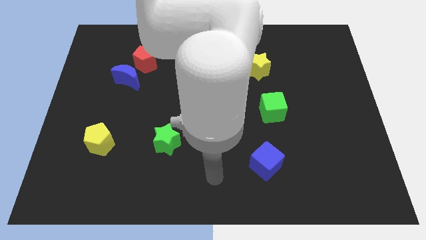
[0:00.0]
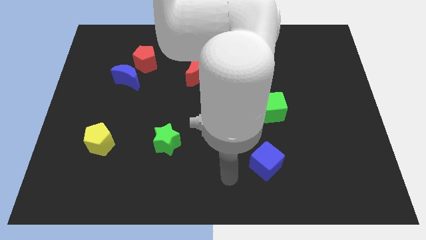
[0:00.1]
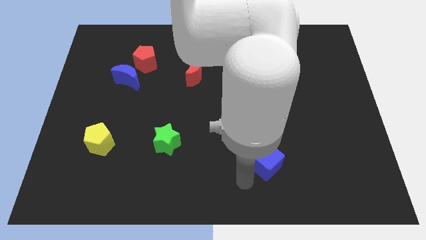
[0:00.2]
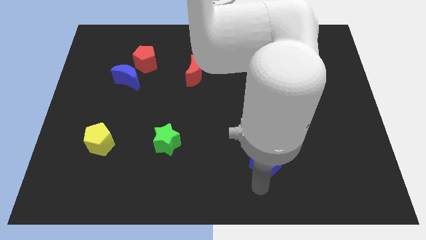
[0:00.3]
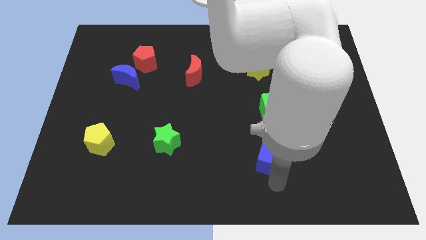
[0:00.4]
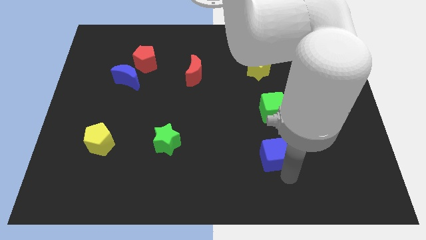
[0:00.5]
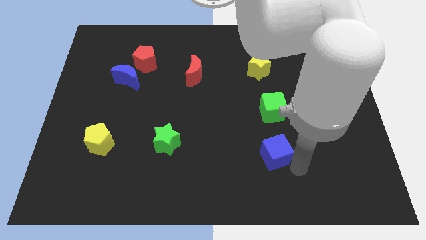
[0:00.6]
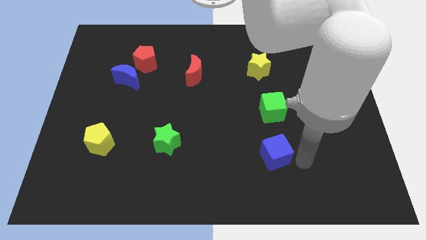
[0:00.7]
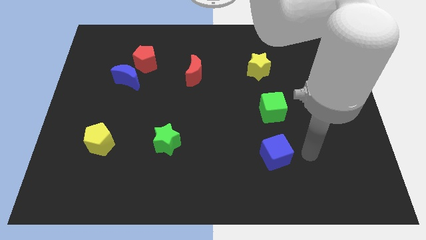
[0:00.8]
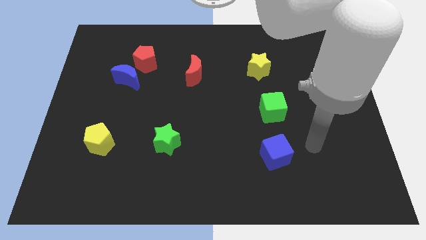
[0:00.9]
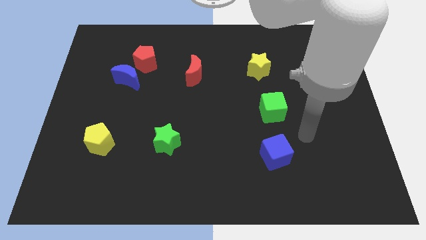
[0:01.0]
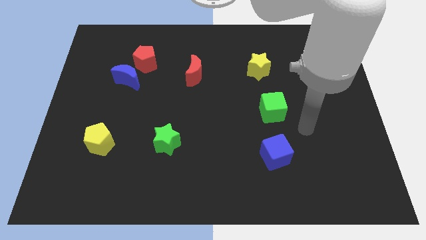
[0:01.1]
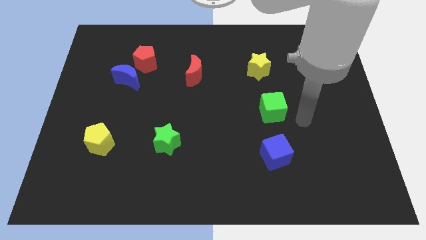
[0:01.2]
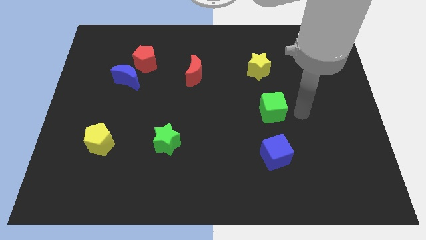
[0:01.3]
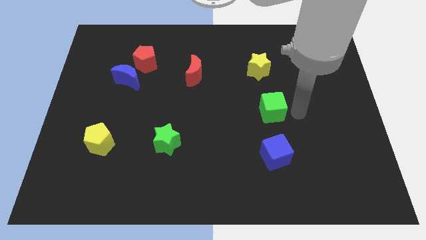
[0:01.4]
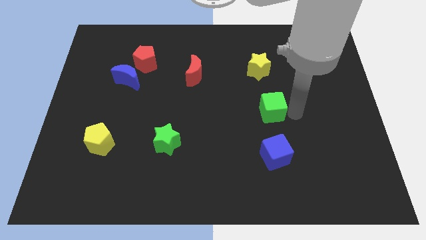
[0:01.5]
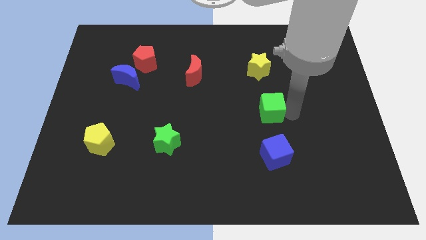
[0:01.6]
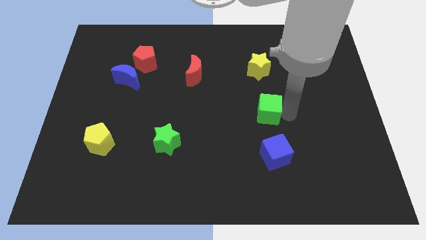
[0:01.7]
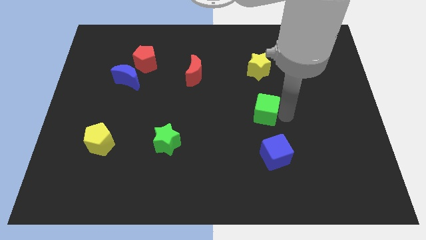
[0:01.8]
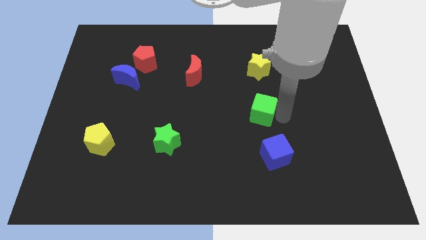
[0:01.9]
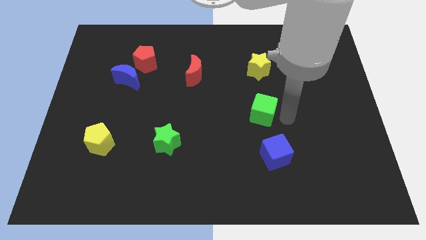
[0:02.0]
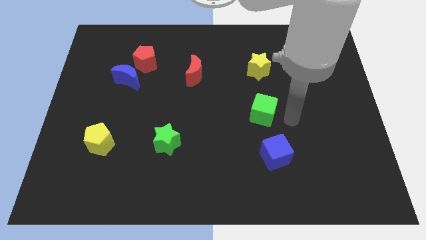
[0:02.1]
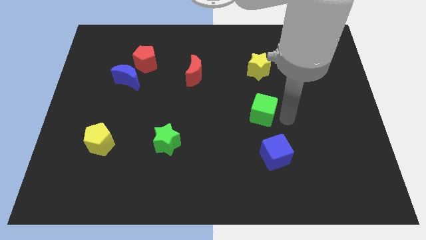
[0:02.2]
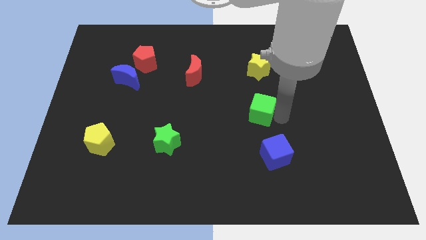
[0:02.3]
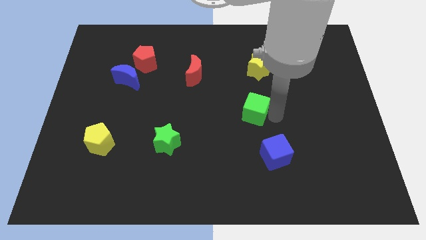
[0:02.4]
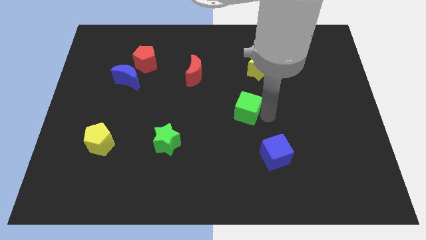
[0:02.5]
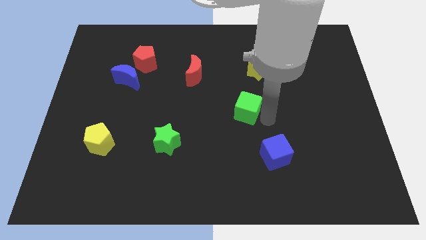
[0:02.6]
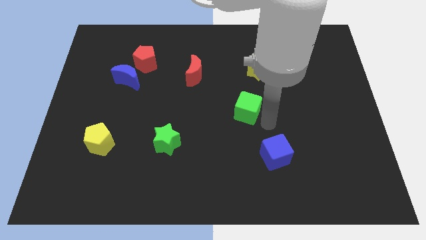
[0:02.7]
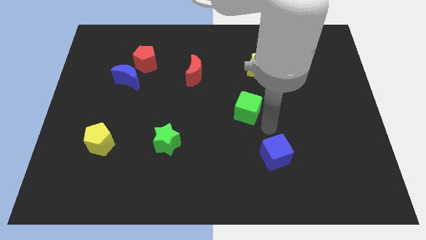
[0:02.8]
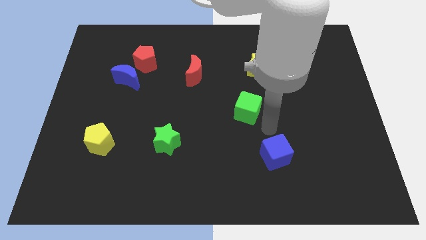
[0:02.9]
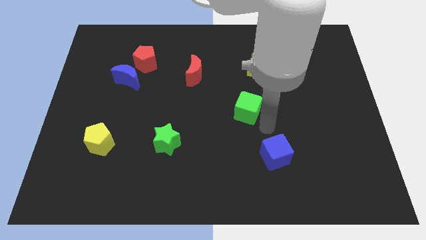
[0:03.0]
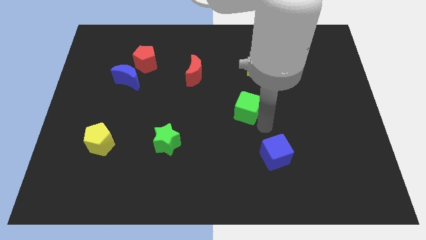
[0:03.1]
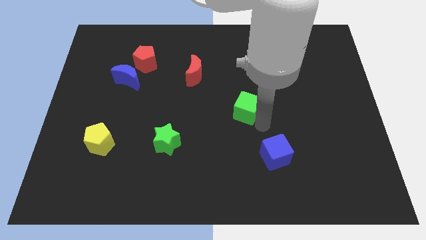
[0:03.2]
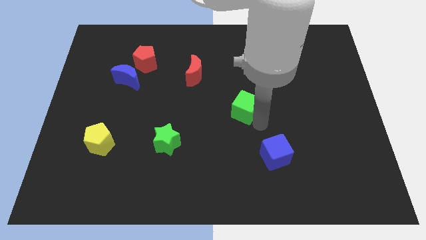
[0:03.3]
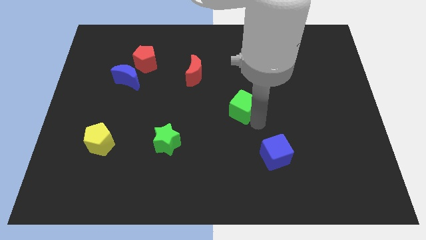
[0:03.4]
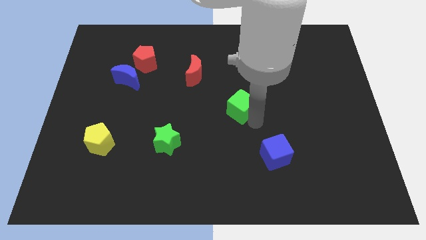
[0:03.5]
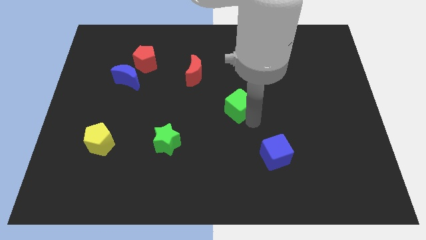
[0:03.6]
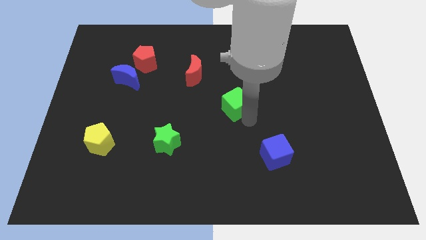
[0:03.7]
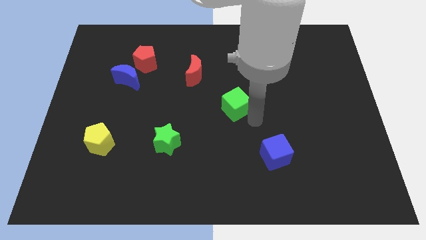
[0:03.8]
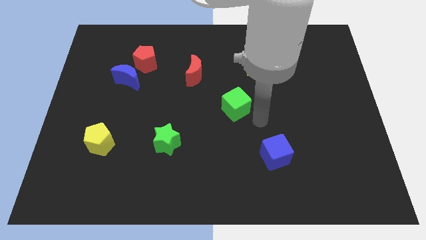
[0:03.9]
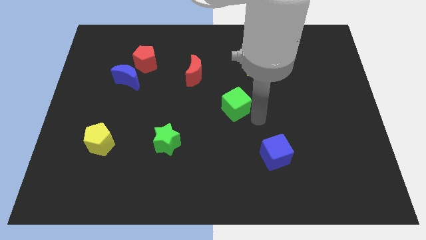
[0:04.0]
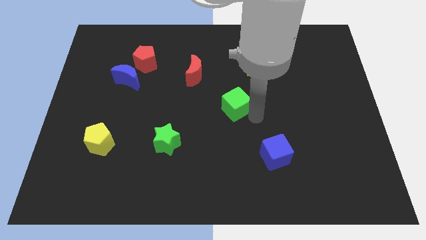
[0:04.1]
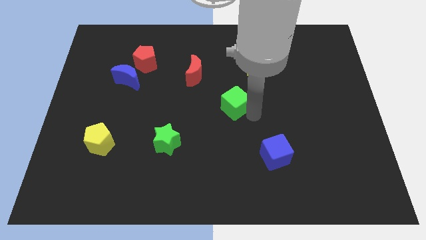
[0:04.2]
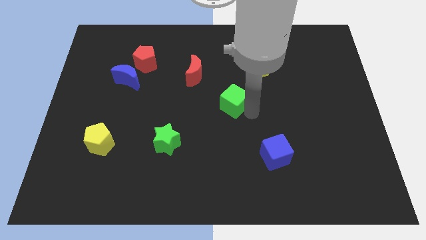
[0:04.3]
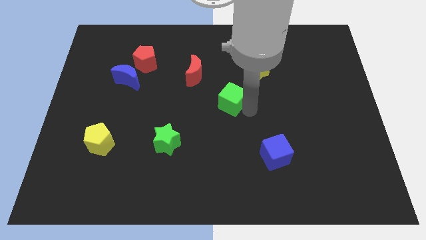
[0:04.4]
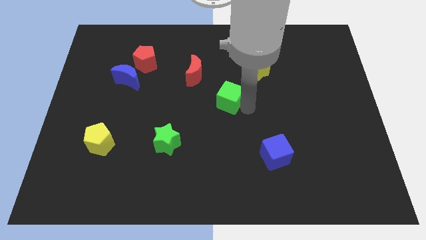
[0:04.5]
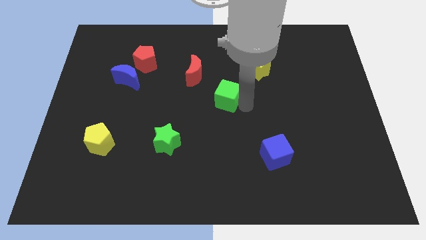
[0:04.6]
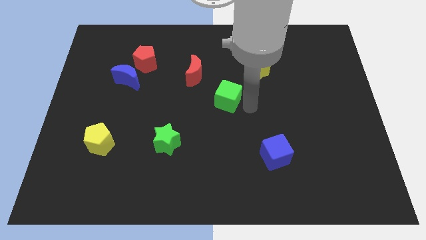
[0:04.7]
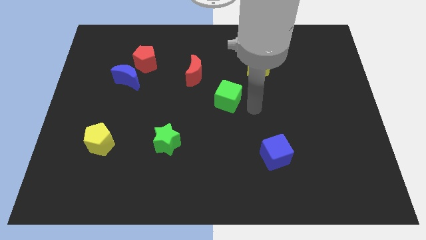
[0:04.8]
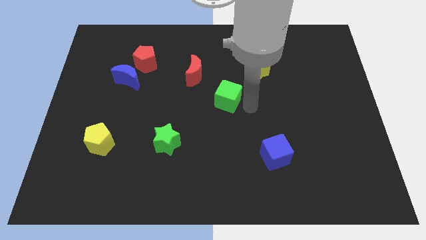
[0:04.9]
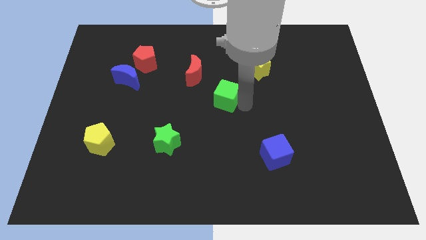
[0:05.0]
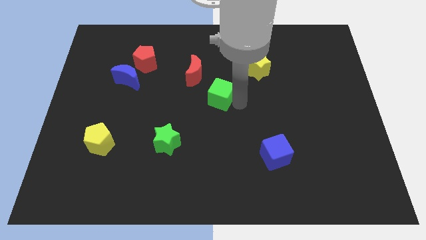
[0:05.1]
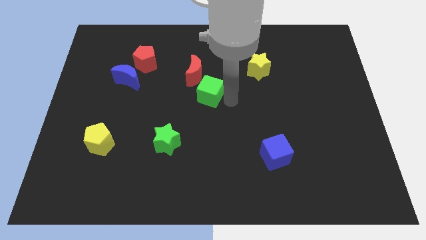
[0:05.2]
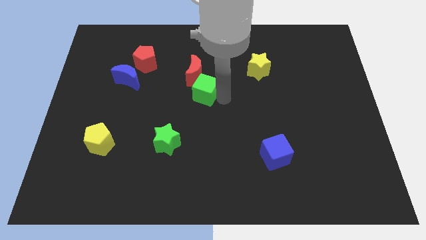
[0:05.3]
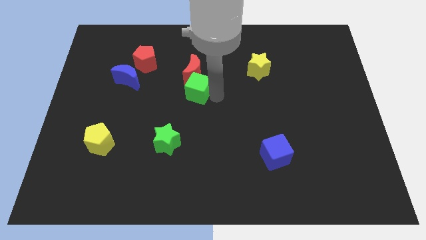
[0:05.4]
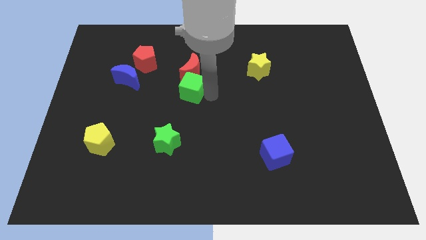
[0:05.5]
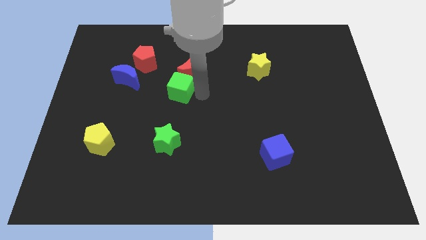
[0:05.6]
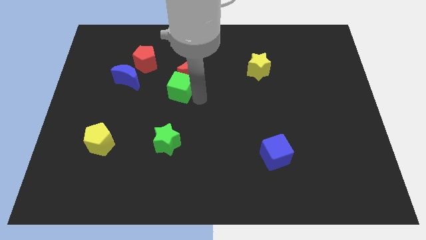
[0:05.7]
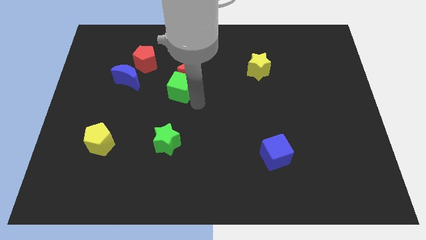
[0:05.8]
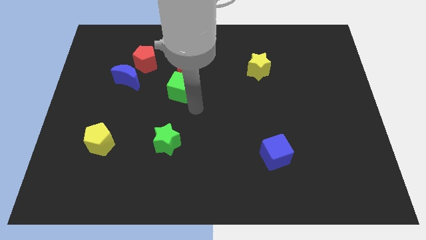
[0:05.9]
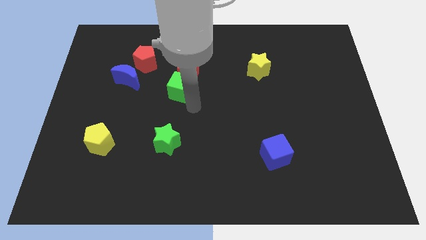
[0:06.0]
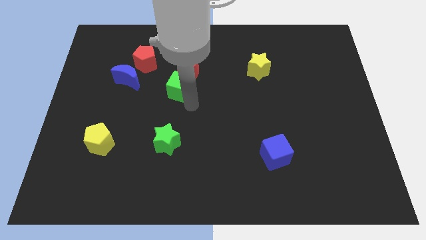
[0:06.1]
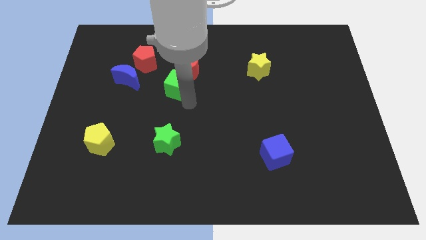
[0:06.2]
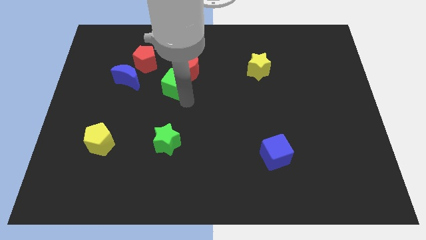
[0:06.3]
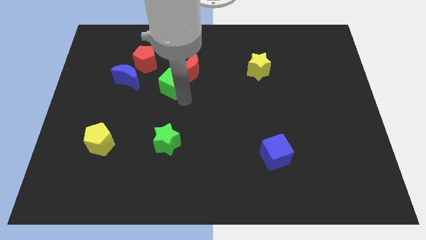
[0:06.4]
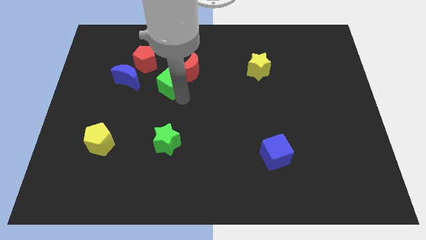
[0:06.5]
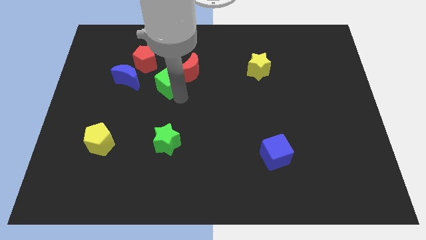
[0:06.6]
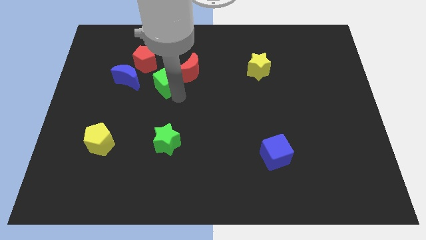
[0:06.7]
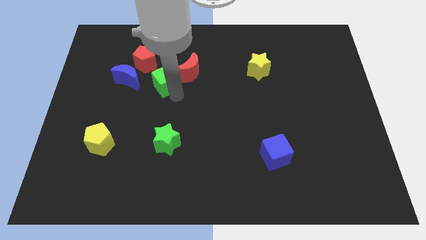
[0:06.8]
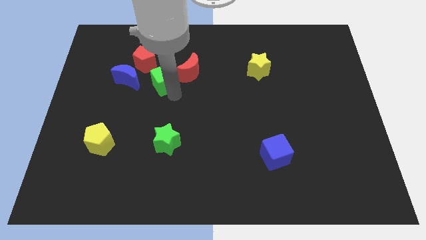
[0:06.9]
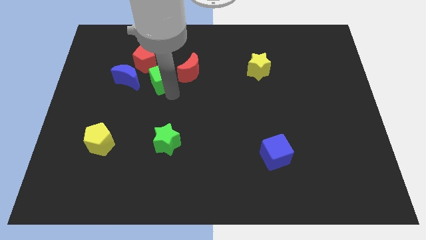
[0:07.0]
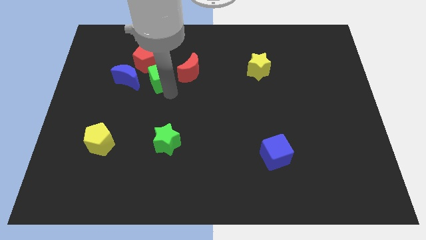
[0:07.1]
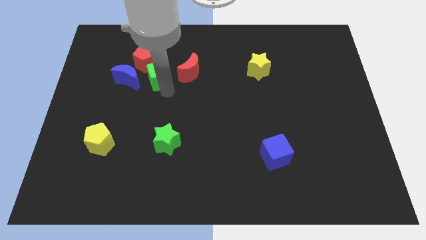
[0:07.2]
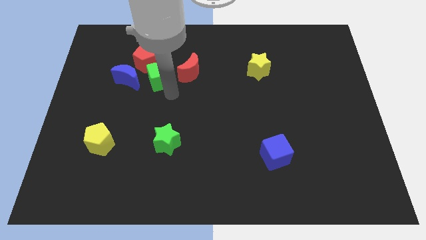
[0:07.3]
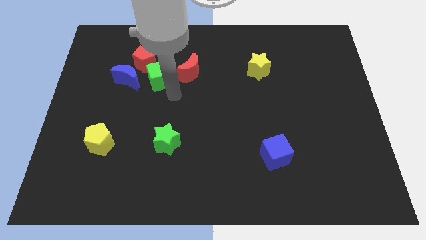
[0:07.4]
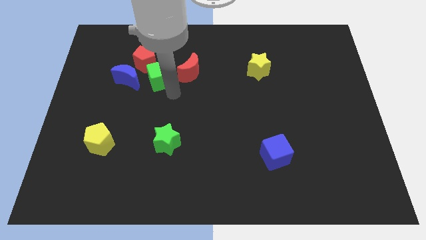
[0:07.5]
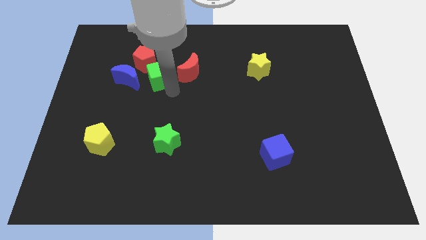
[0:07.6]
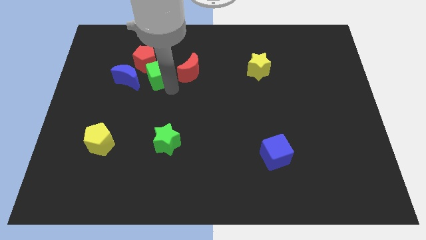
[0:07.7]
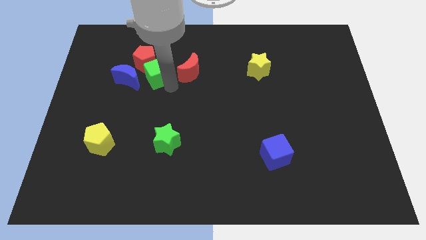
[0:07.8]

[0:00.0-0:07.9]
push the green cube towards the red pentagon
